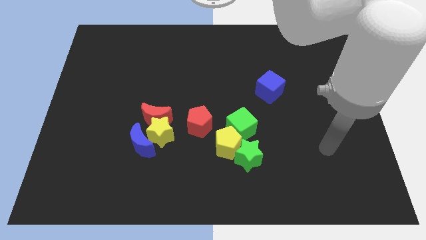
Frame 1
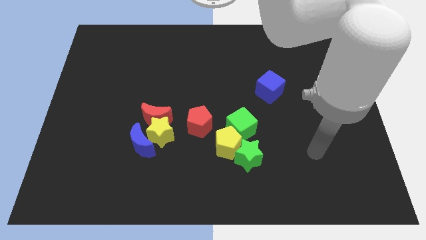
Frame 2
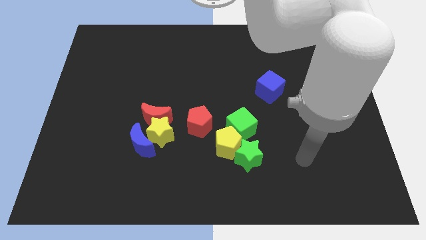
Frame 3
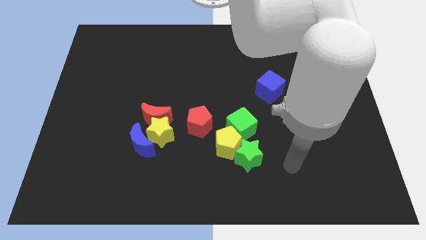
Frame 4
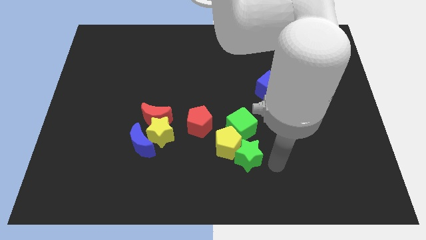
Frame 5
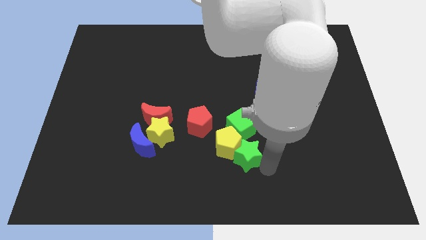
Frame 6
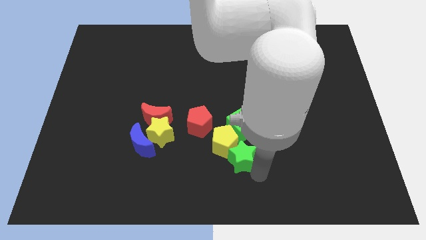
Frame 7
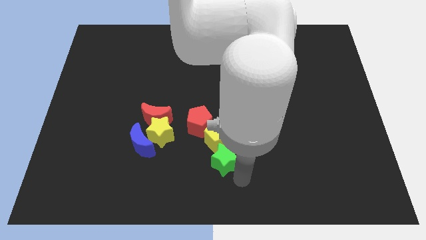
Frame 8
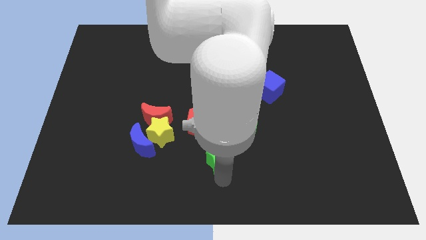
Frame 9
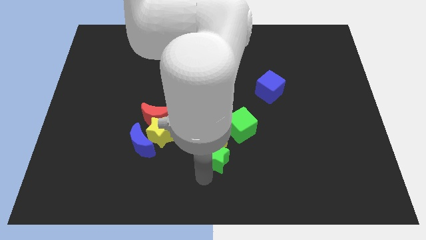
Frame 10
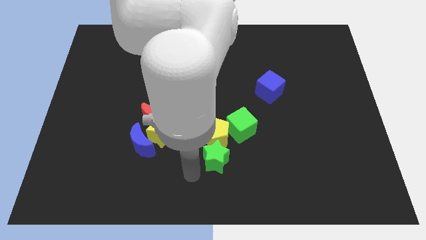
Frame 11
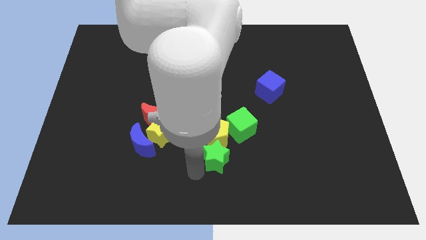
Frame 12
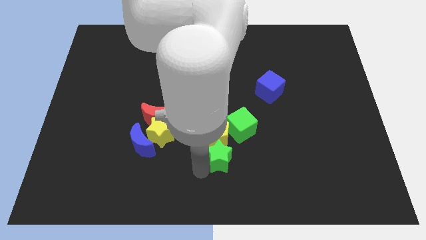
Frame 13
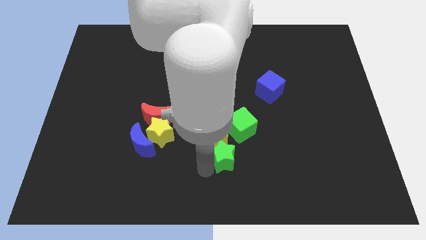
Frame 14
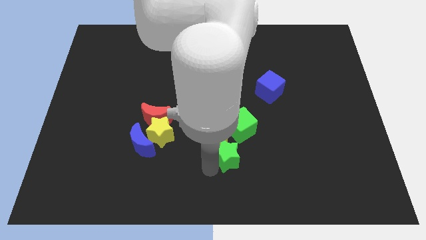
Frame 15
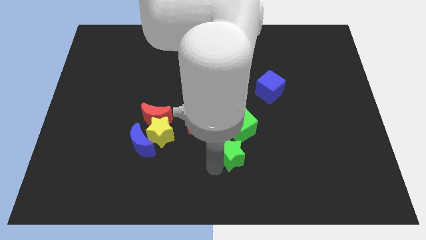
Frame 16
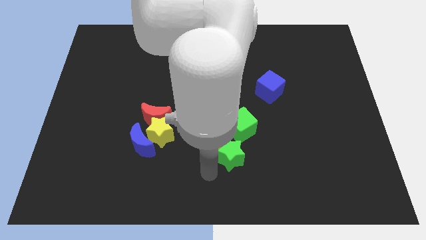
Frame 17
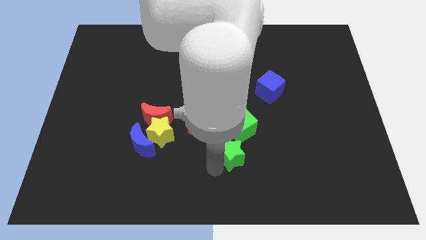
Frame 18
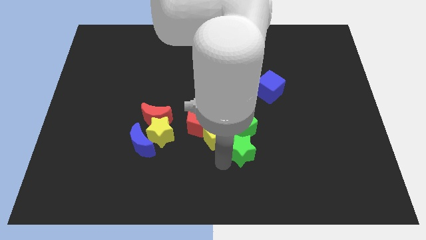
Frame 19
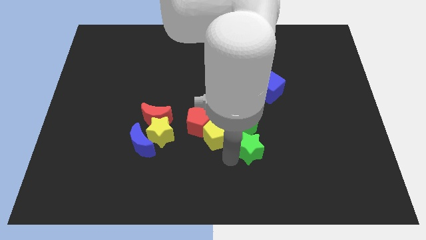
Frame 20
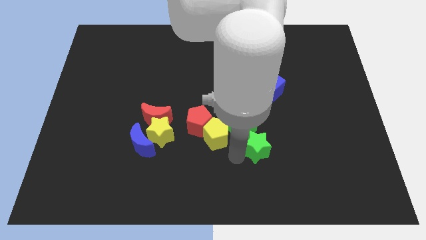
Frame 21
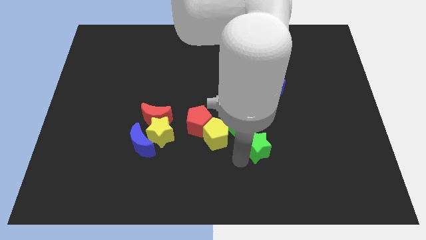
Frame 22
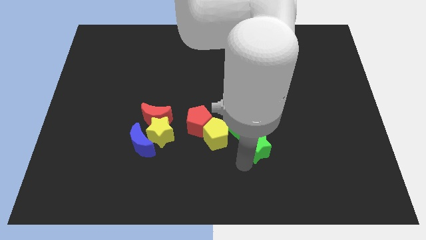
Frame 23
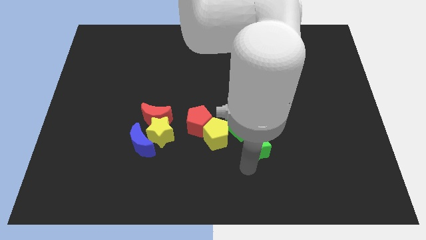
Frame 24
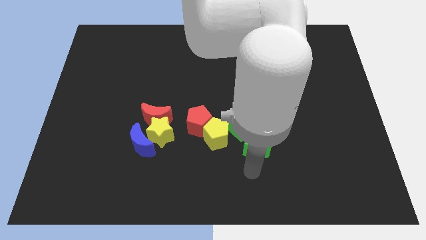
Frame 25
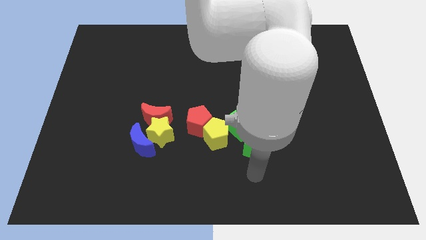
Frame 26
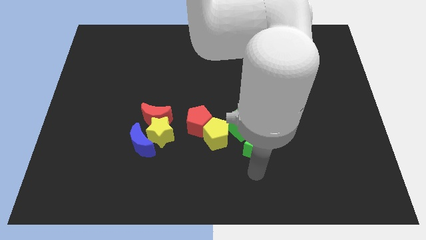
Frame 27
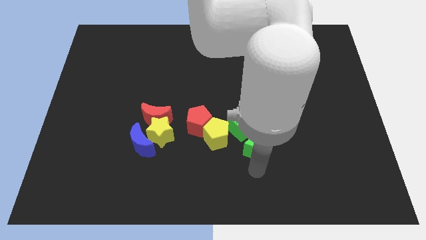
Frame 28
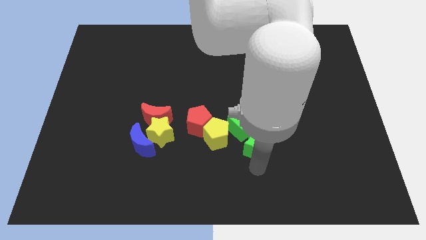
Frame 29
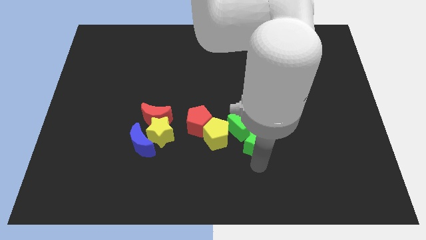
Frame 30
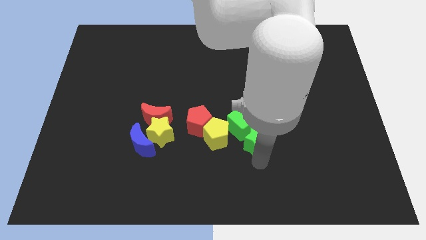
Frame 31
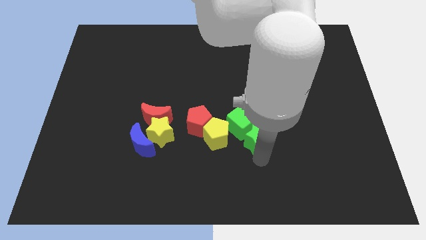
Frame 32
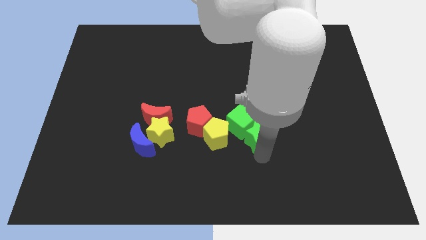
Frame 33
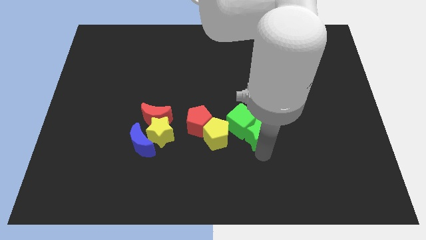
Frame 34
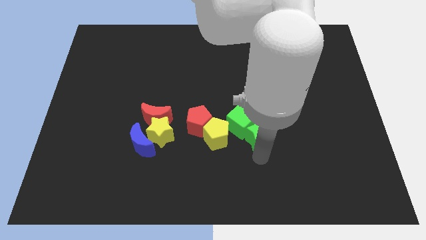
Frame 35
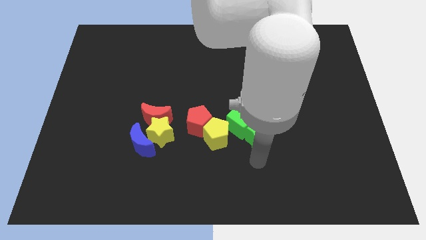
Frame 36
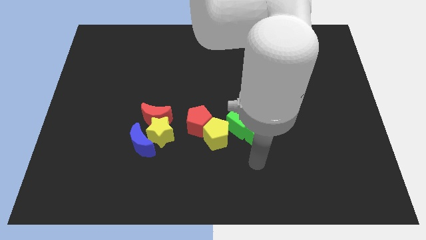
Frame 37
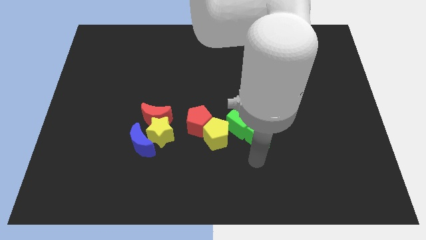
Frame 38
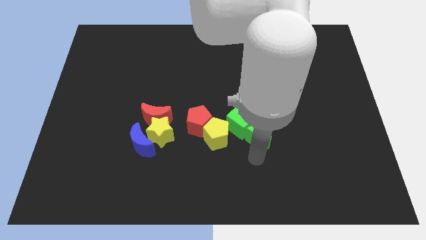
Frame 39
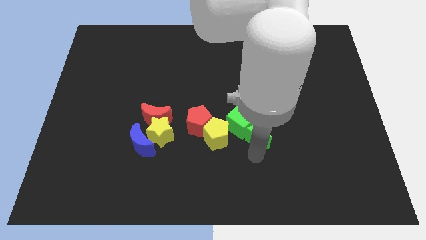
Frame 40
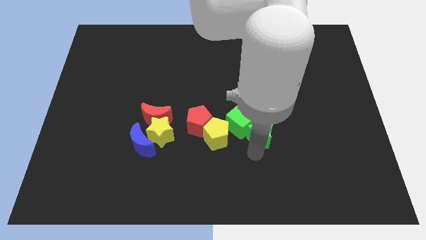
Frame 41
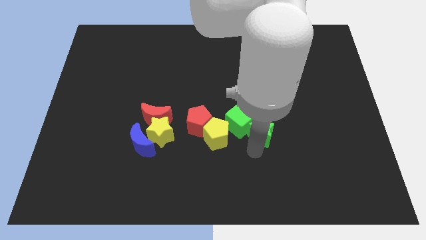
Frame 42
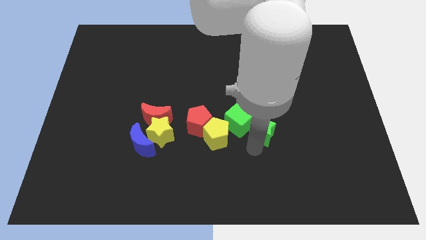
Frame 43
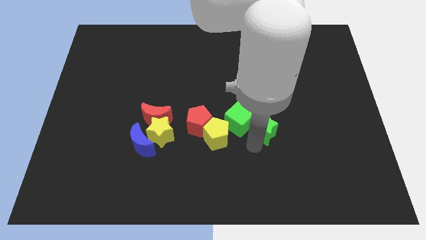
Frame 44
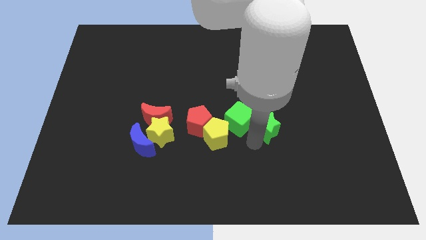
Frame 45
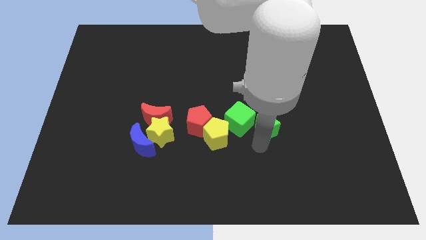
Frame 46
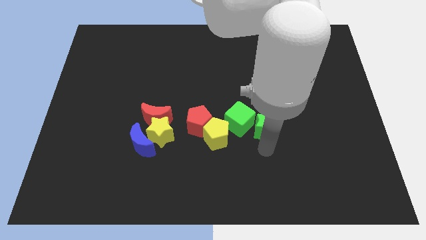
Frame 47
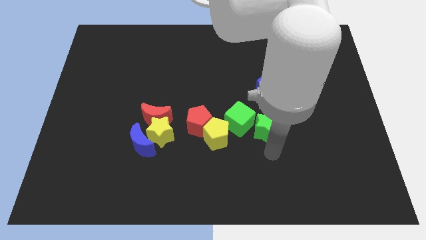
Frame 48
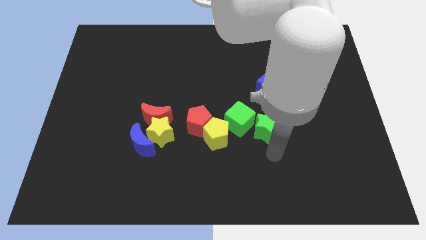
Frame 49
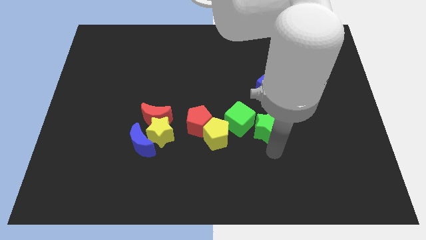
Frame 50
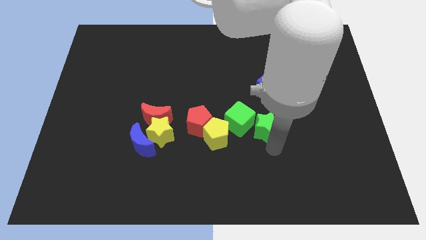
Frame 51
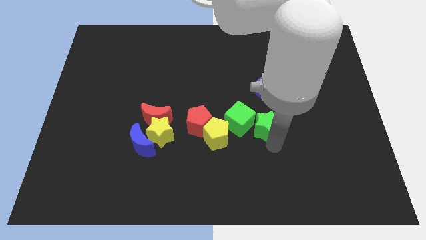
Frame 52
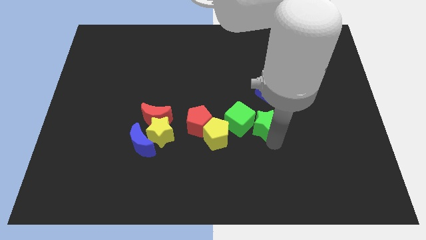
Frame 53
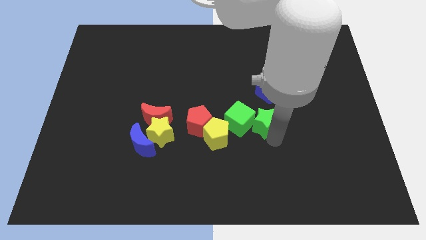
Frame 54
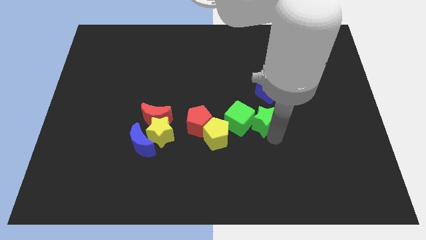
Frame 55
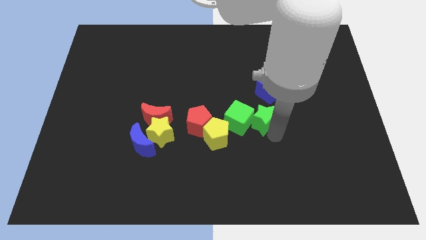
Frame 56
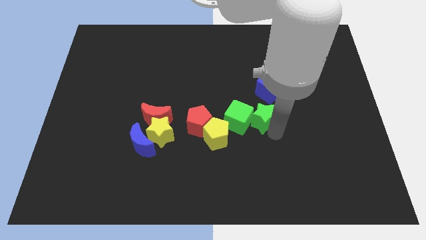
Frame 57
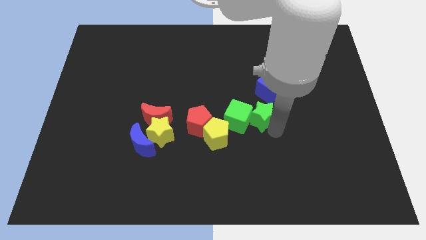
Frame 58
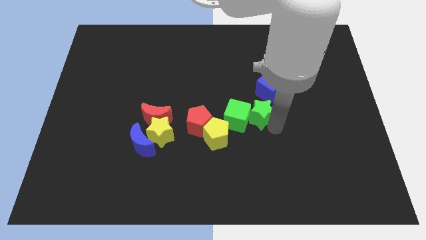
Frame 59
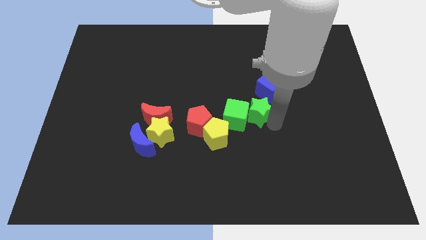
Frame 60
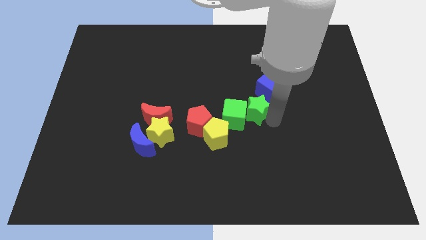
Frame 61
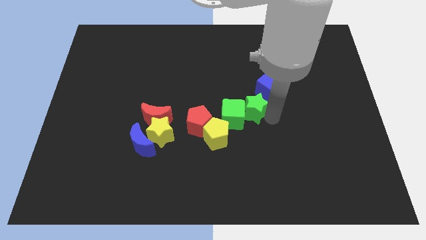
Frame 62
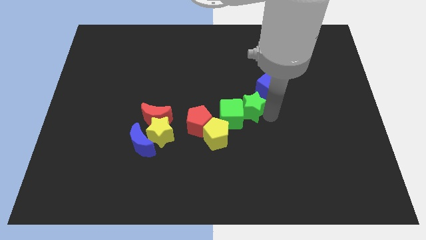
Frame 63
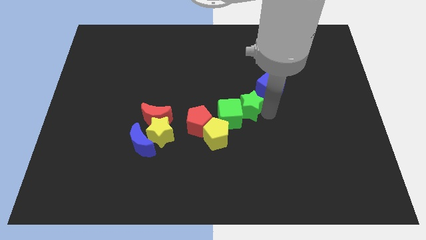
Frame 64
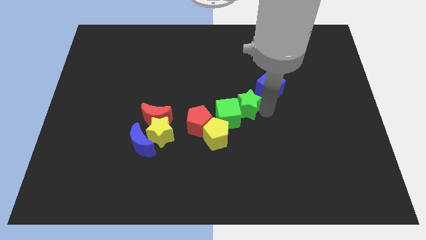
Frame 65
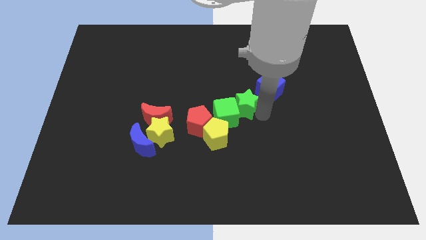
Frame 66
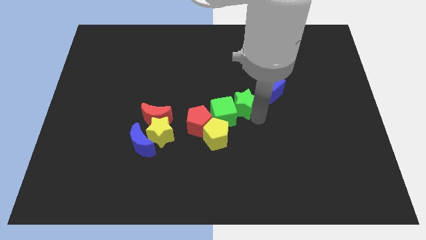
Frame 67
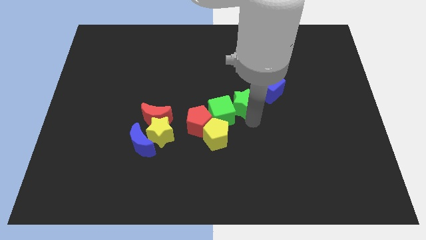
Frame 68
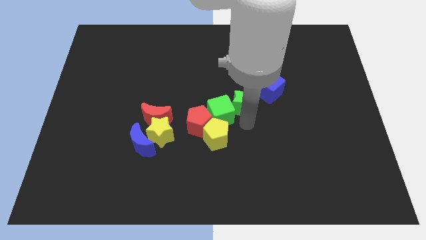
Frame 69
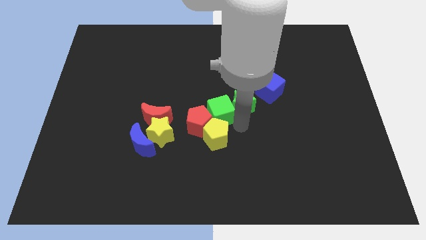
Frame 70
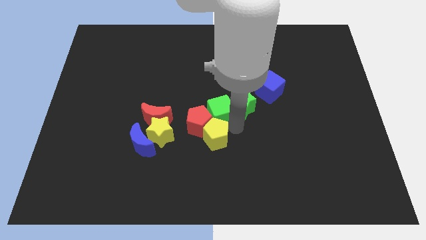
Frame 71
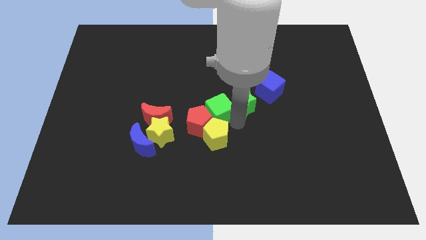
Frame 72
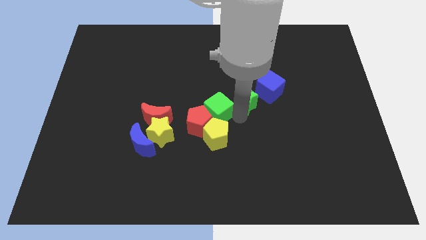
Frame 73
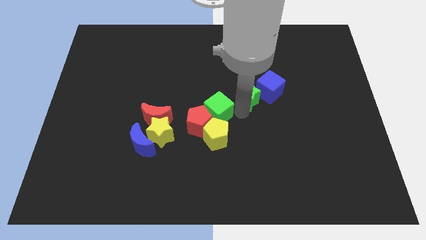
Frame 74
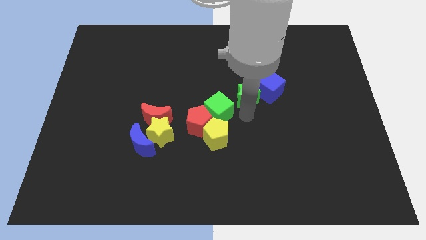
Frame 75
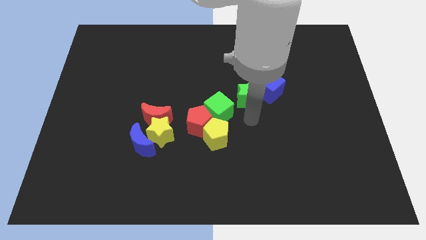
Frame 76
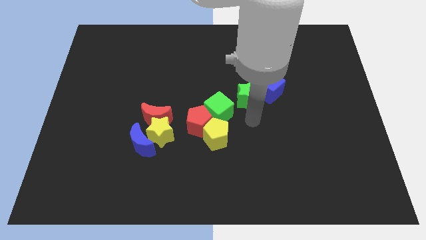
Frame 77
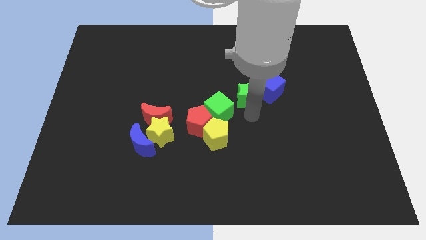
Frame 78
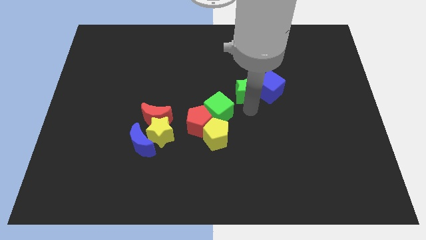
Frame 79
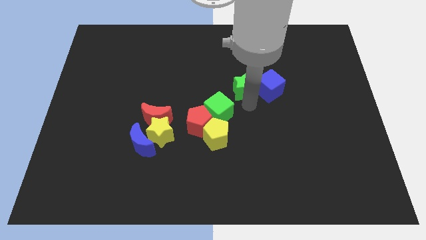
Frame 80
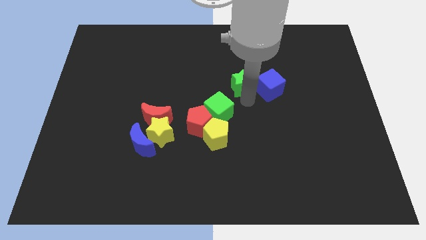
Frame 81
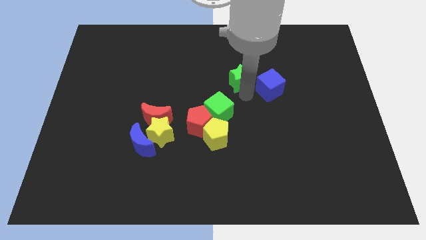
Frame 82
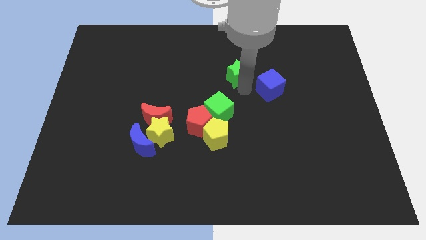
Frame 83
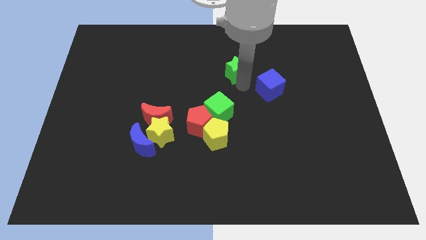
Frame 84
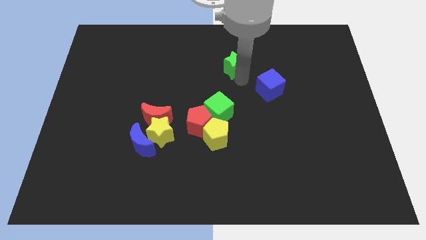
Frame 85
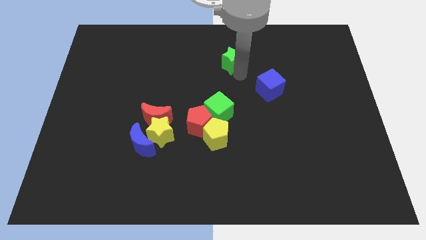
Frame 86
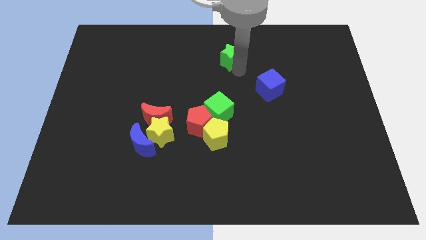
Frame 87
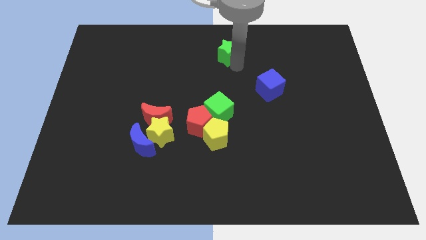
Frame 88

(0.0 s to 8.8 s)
put the green star to the towards your base
